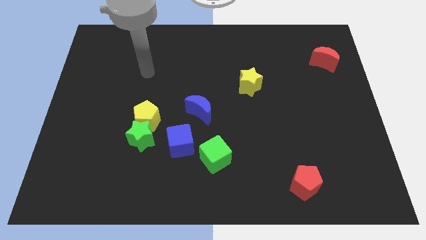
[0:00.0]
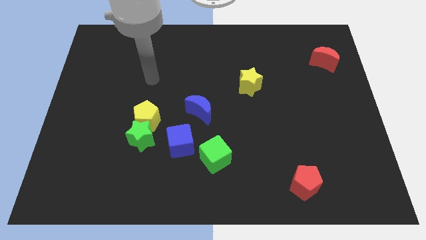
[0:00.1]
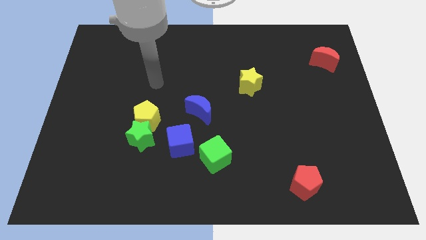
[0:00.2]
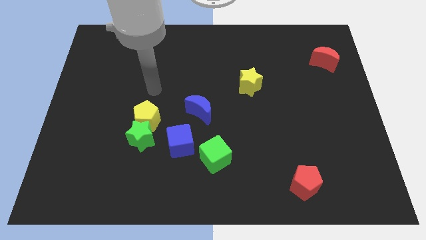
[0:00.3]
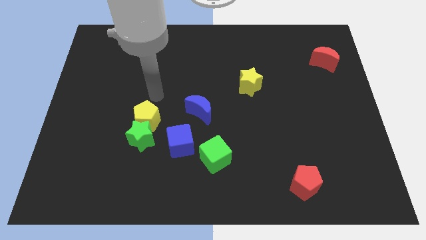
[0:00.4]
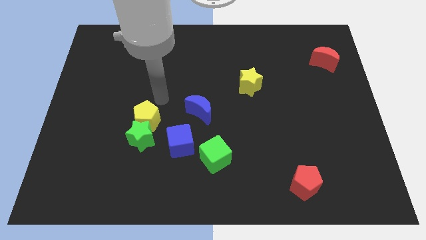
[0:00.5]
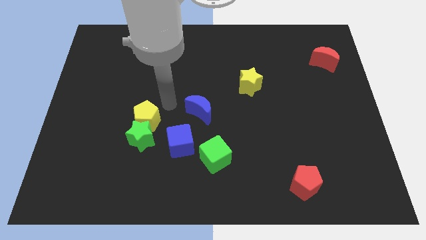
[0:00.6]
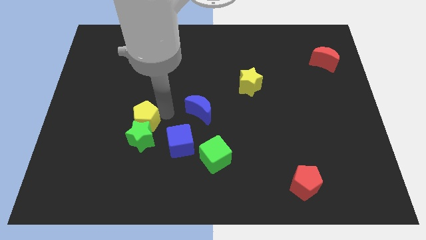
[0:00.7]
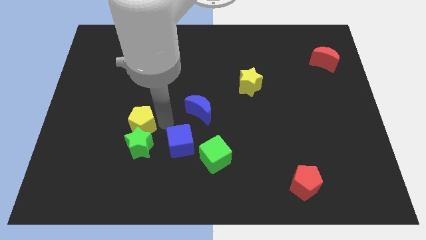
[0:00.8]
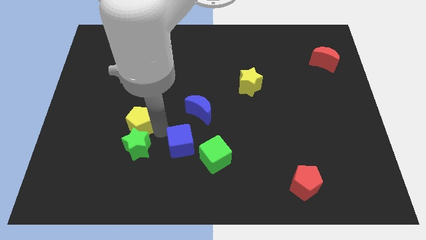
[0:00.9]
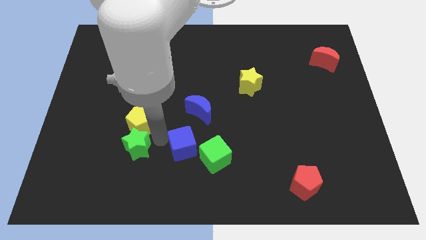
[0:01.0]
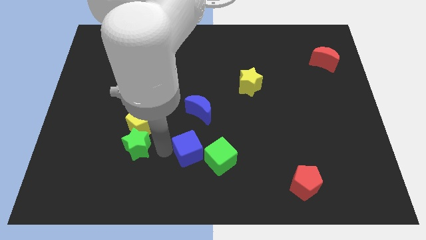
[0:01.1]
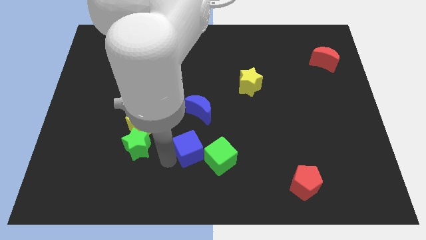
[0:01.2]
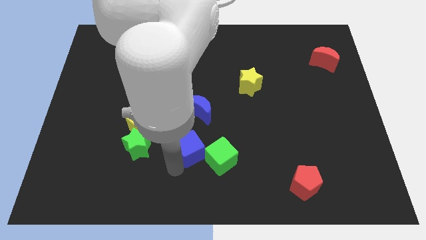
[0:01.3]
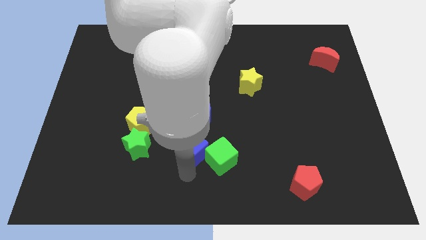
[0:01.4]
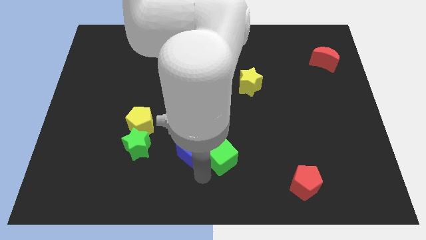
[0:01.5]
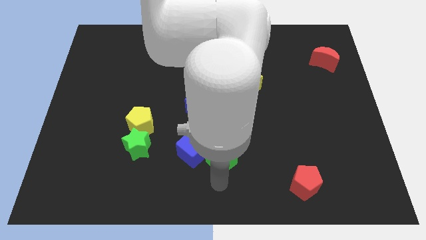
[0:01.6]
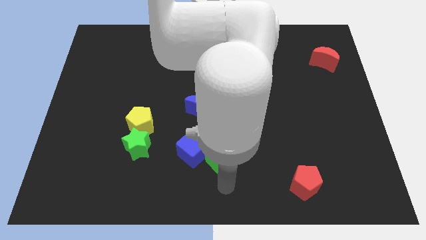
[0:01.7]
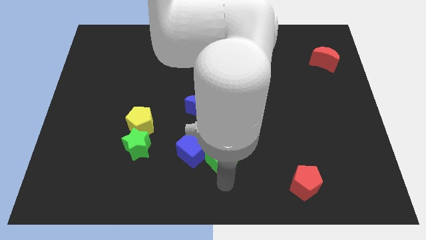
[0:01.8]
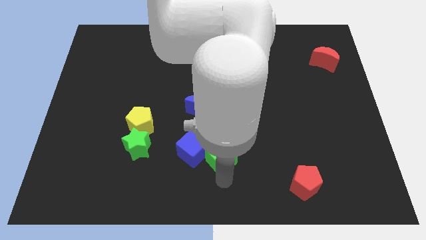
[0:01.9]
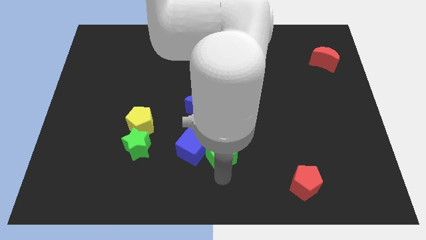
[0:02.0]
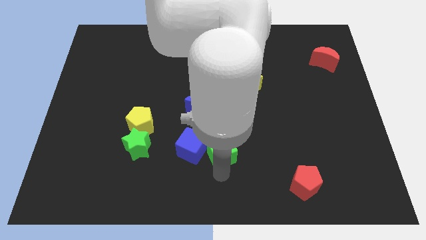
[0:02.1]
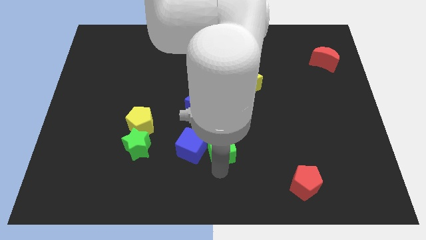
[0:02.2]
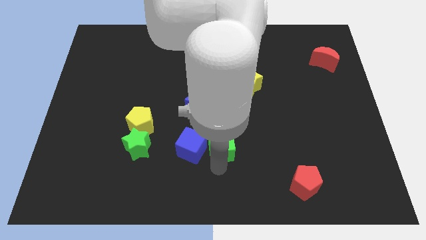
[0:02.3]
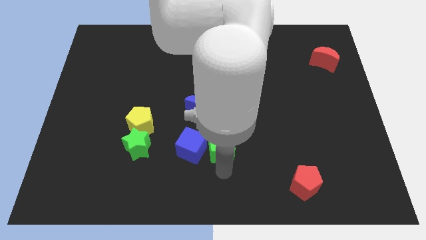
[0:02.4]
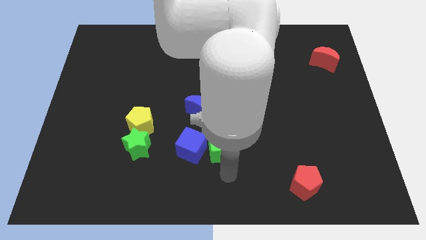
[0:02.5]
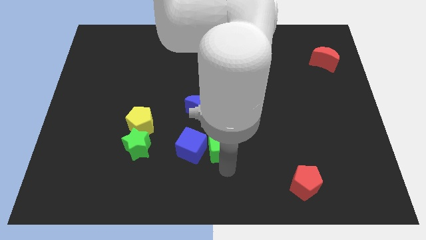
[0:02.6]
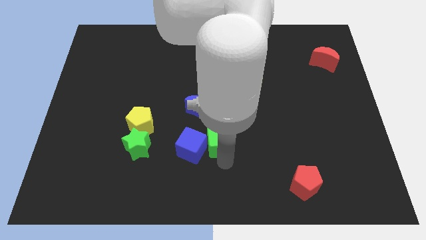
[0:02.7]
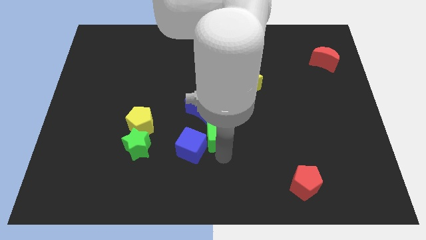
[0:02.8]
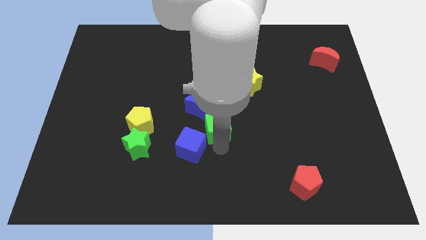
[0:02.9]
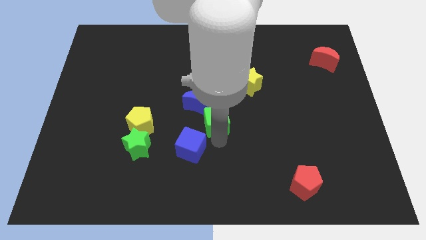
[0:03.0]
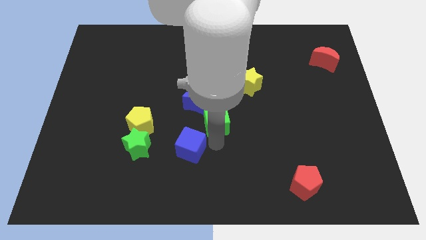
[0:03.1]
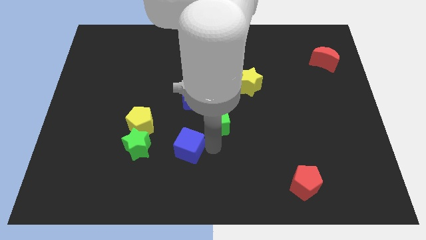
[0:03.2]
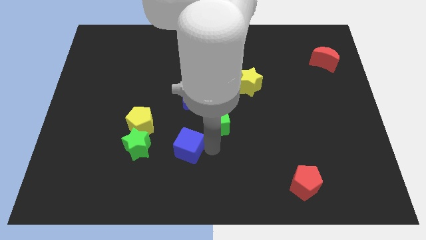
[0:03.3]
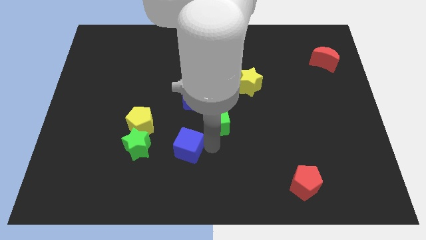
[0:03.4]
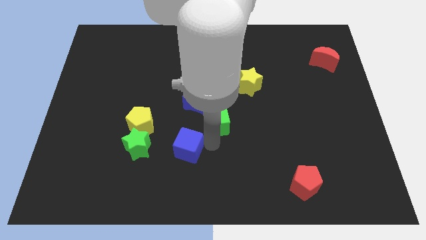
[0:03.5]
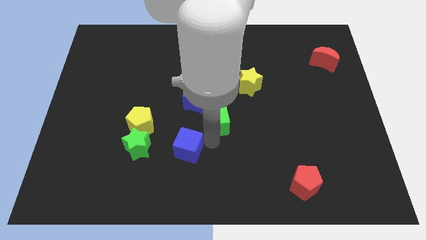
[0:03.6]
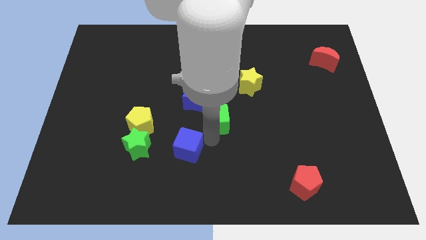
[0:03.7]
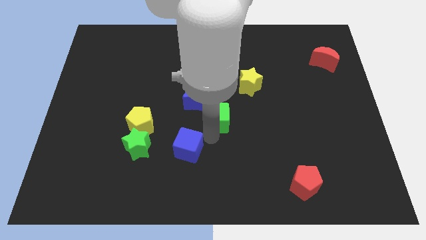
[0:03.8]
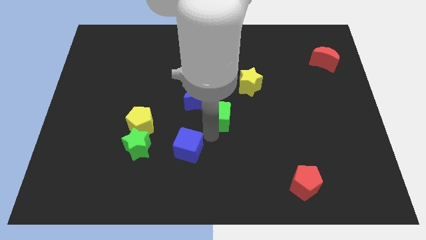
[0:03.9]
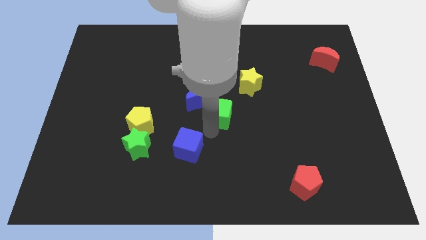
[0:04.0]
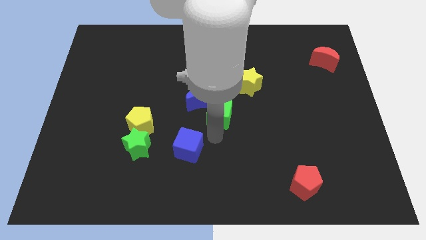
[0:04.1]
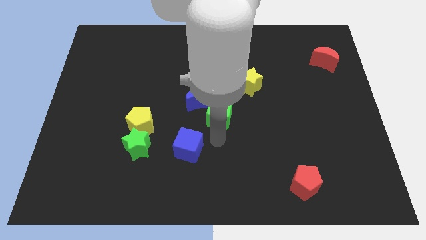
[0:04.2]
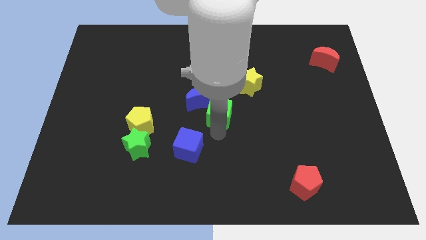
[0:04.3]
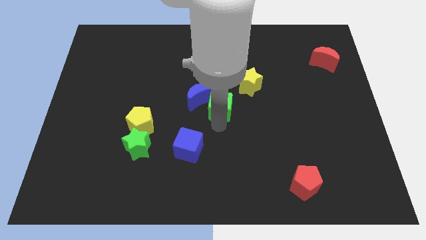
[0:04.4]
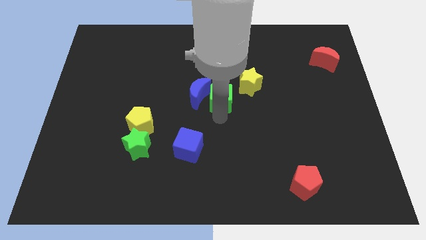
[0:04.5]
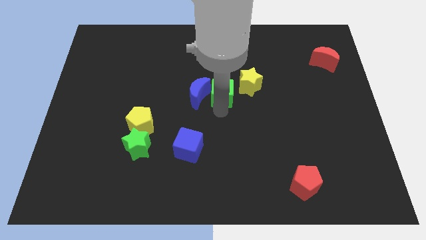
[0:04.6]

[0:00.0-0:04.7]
put the green cube to the top right of the blue moon
